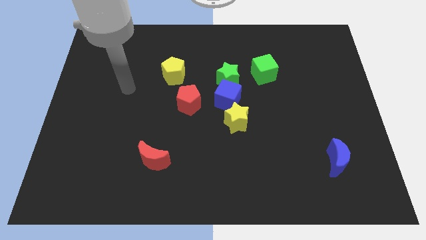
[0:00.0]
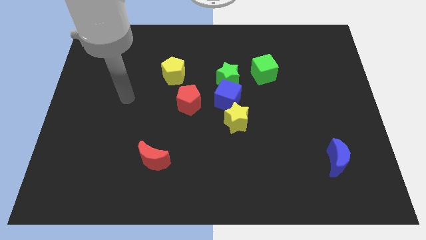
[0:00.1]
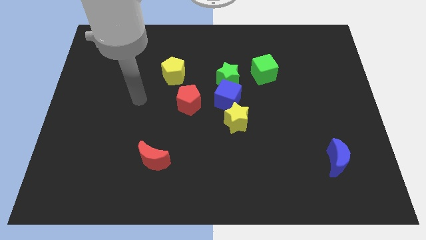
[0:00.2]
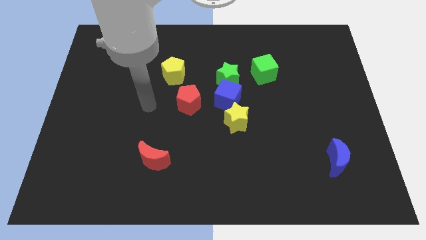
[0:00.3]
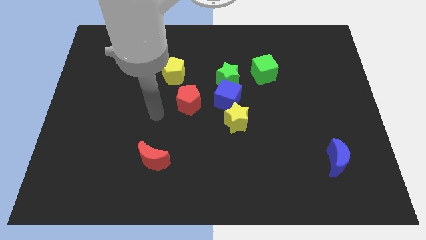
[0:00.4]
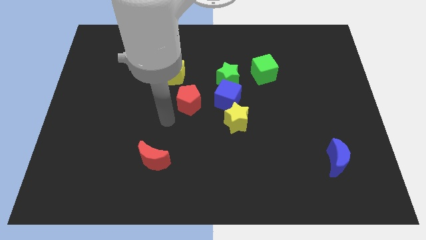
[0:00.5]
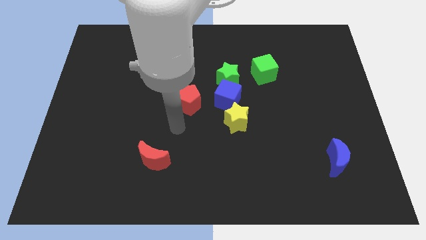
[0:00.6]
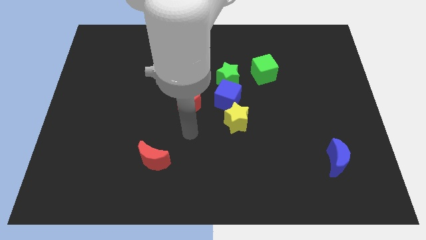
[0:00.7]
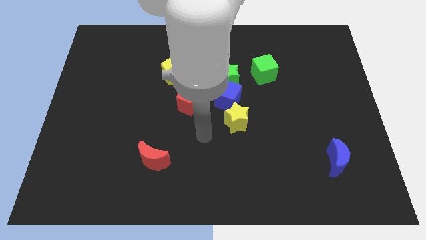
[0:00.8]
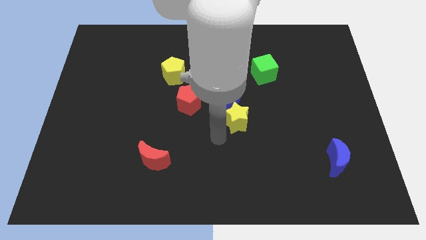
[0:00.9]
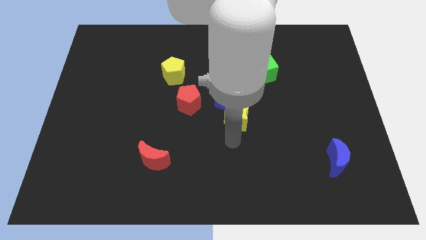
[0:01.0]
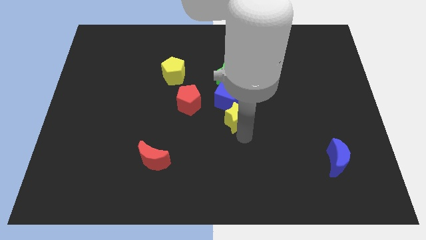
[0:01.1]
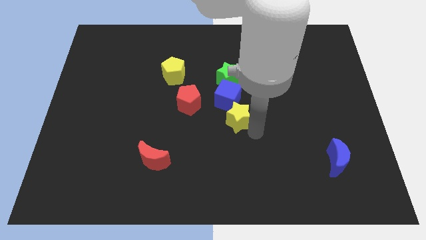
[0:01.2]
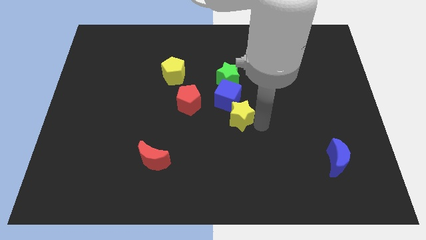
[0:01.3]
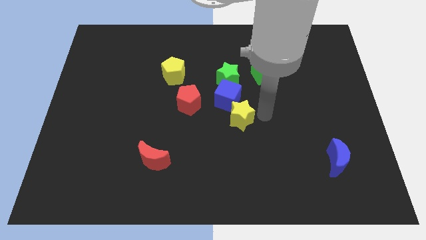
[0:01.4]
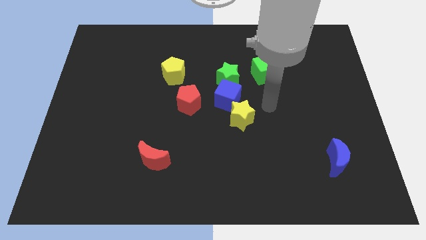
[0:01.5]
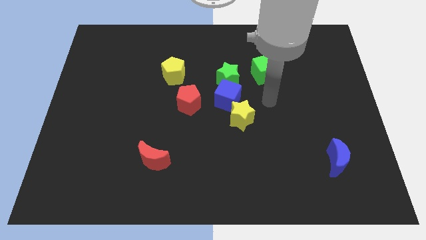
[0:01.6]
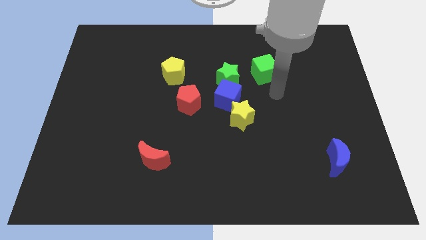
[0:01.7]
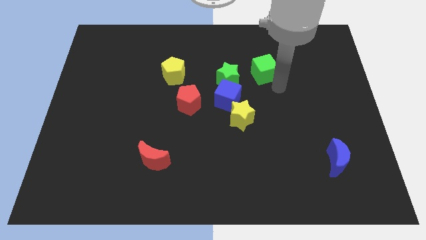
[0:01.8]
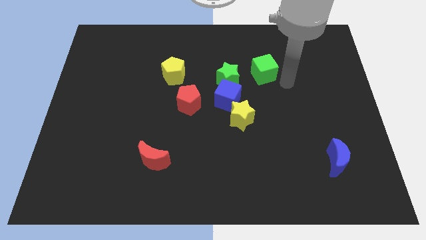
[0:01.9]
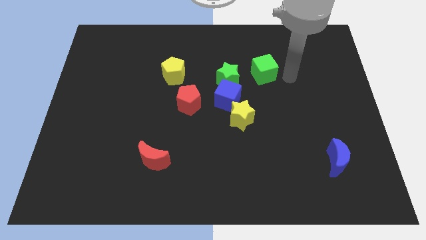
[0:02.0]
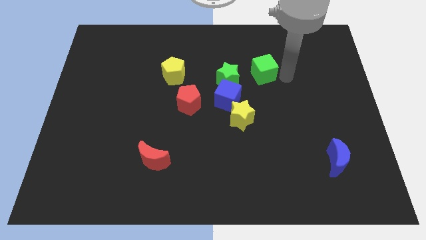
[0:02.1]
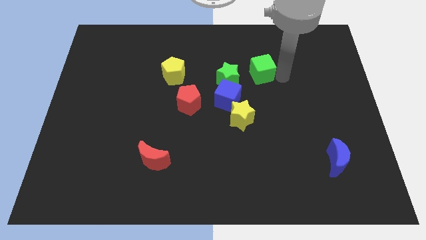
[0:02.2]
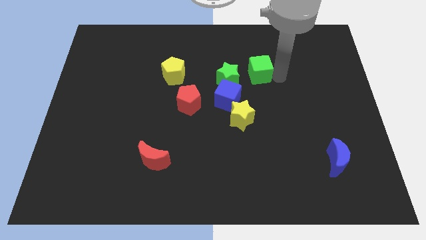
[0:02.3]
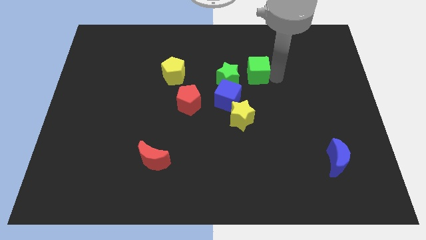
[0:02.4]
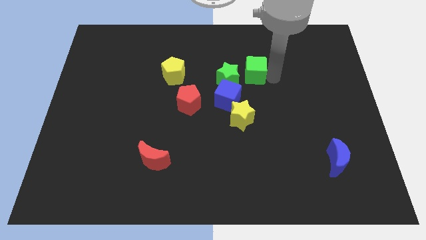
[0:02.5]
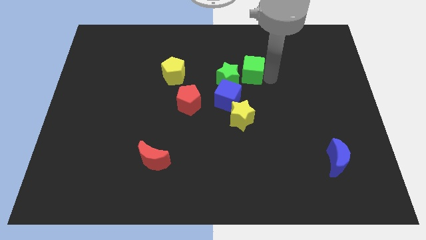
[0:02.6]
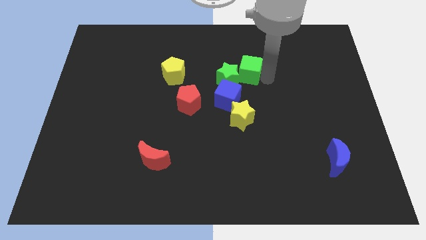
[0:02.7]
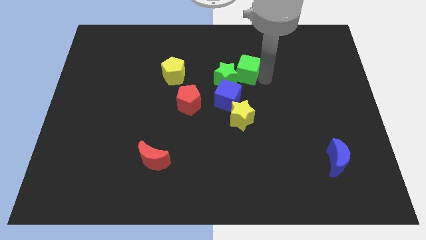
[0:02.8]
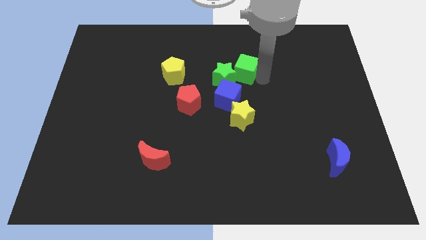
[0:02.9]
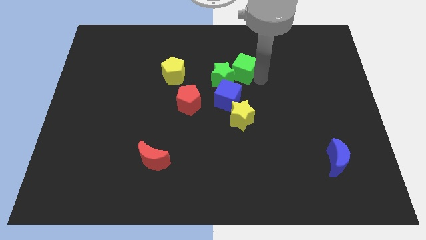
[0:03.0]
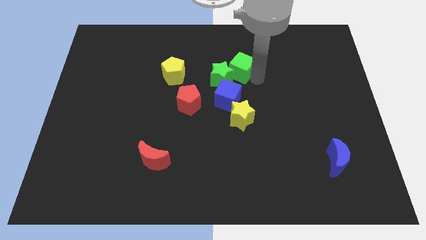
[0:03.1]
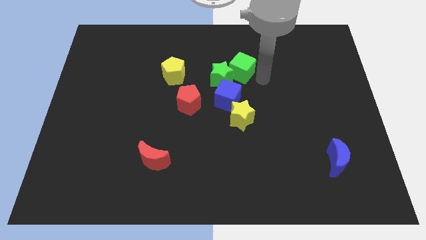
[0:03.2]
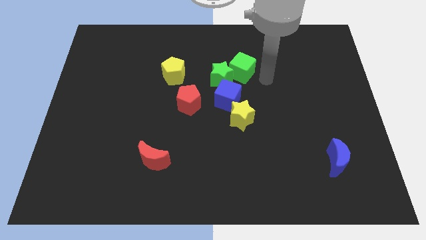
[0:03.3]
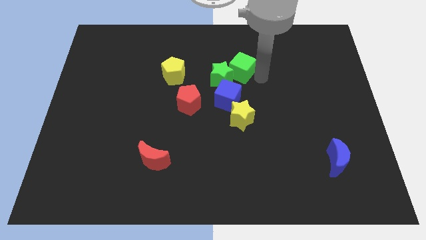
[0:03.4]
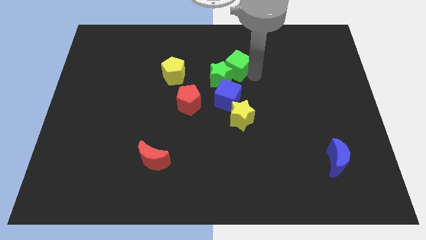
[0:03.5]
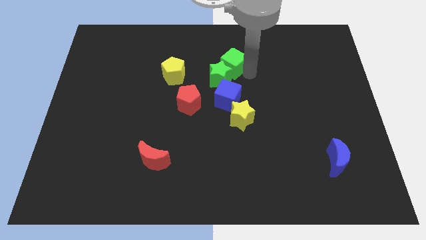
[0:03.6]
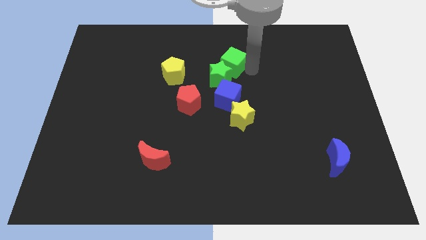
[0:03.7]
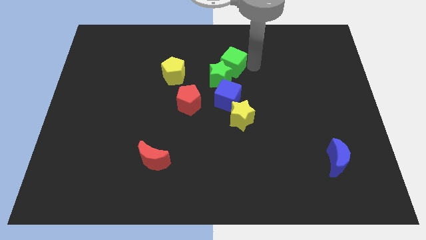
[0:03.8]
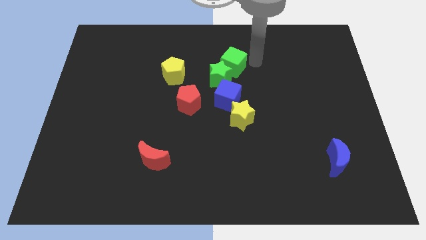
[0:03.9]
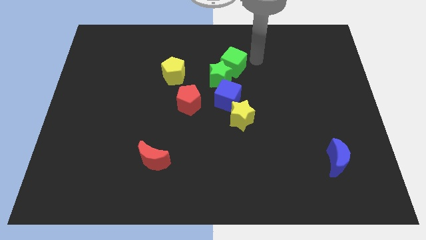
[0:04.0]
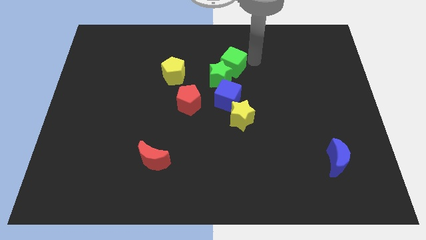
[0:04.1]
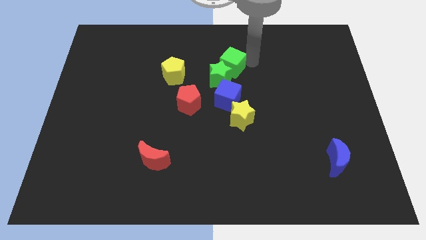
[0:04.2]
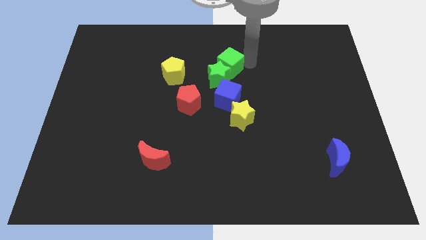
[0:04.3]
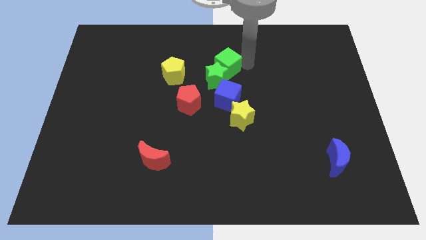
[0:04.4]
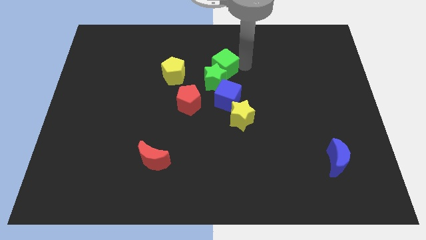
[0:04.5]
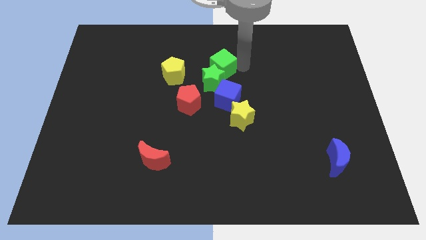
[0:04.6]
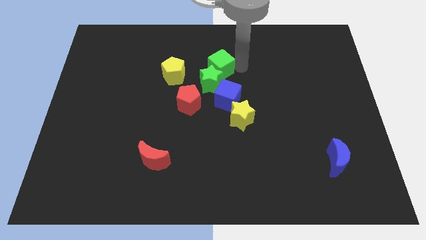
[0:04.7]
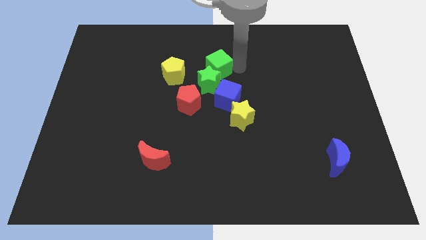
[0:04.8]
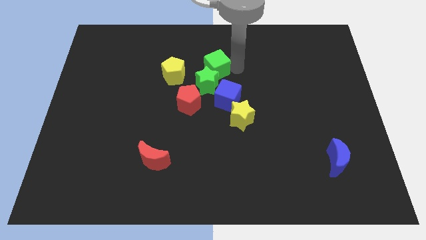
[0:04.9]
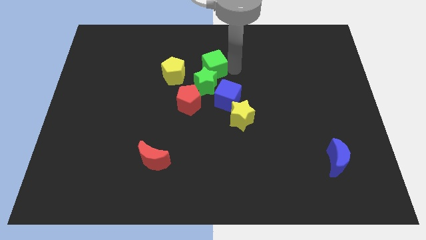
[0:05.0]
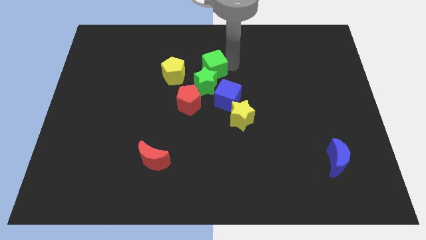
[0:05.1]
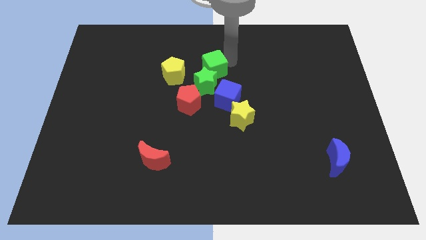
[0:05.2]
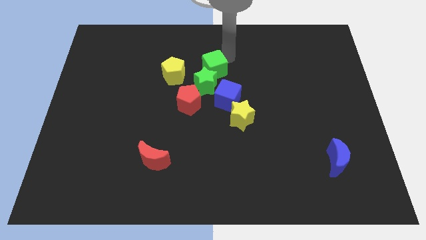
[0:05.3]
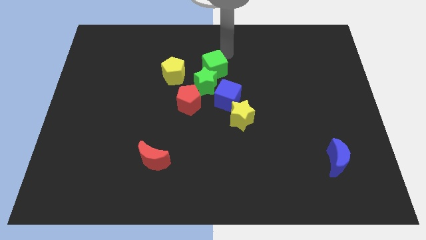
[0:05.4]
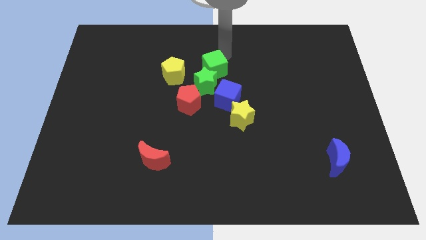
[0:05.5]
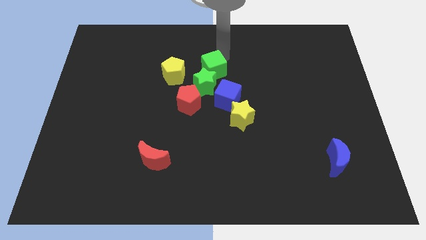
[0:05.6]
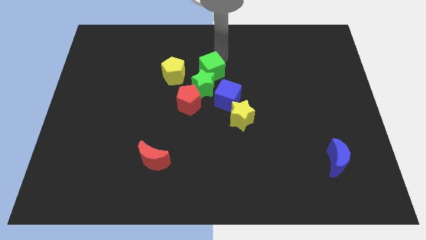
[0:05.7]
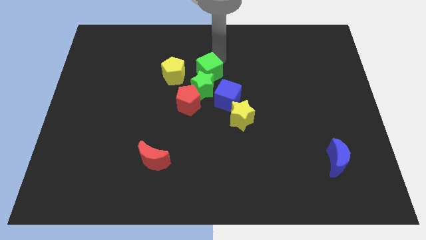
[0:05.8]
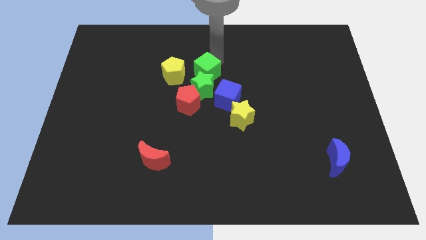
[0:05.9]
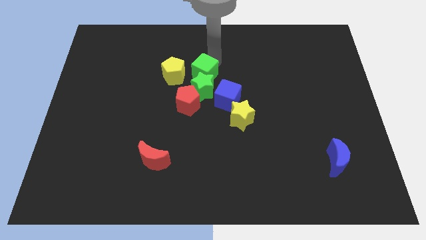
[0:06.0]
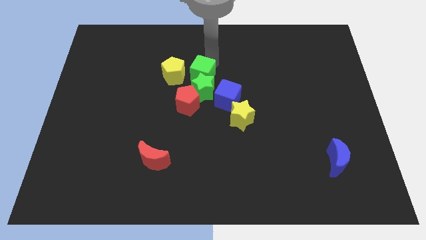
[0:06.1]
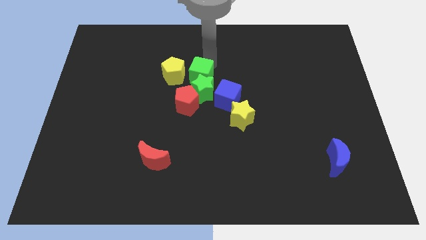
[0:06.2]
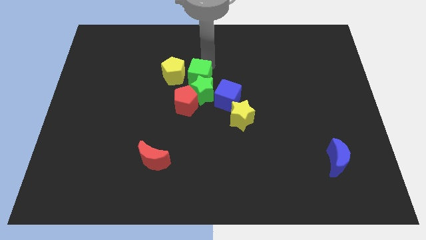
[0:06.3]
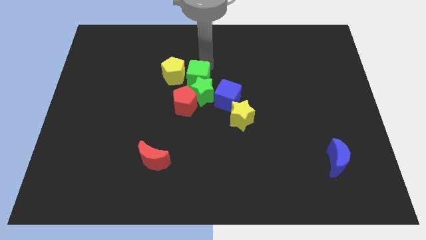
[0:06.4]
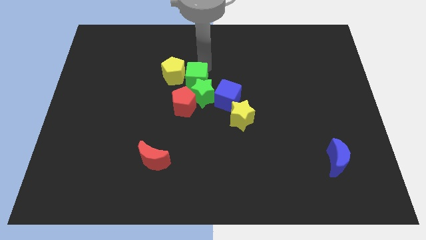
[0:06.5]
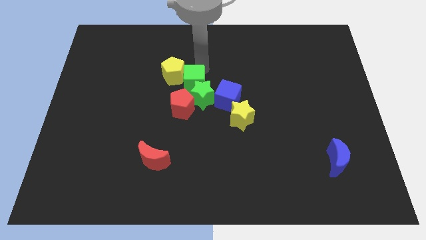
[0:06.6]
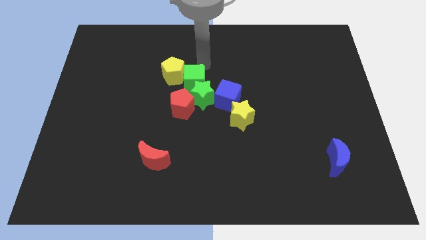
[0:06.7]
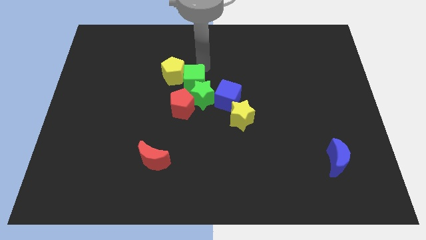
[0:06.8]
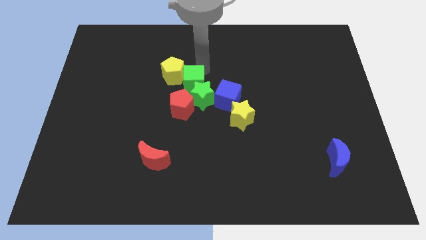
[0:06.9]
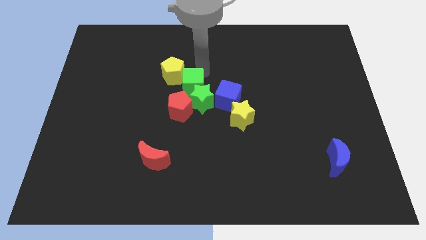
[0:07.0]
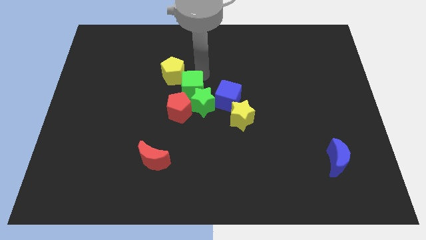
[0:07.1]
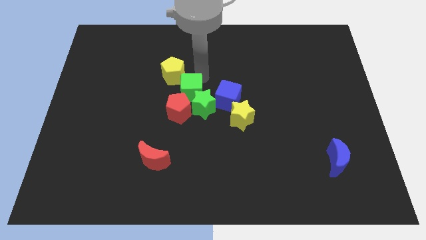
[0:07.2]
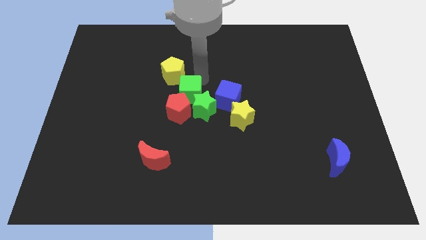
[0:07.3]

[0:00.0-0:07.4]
put the green cube towards the red pentagon
